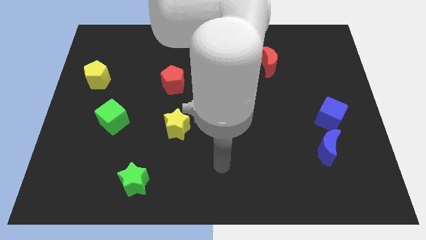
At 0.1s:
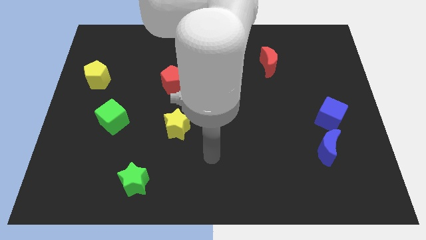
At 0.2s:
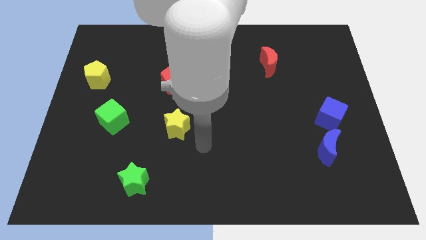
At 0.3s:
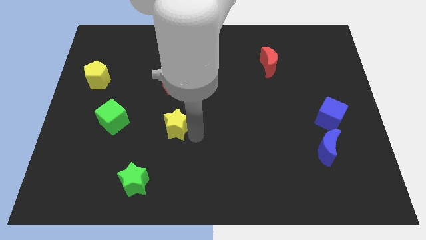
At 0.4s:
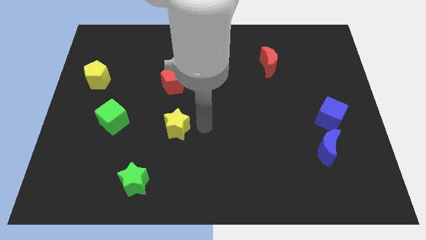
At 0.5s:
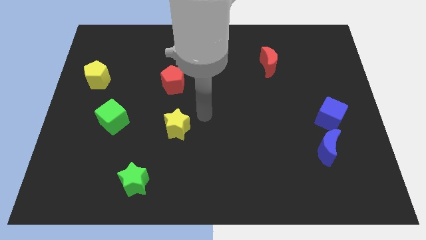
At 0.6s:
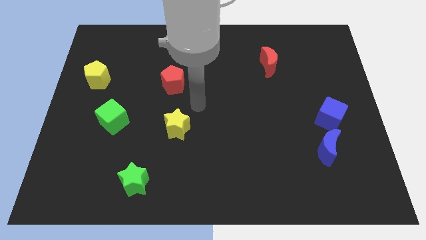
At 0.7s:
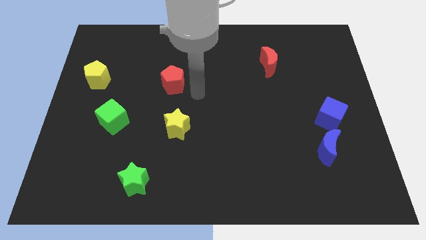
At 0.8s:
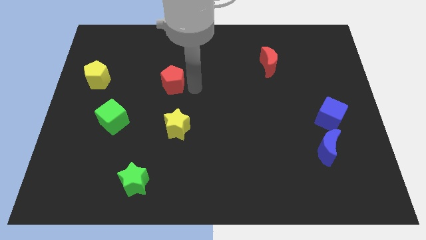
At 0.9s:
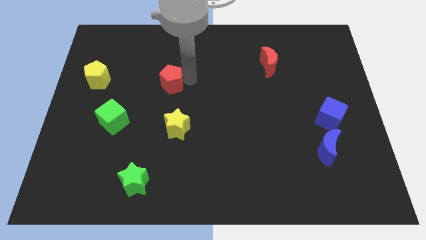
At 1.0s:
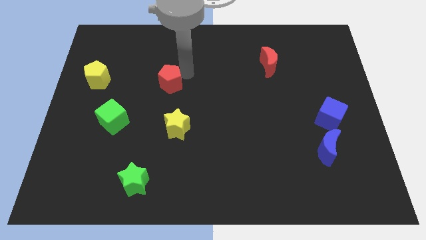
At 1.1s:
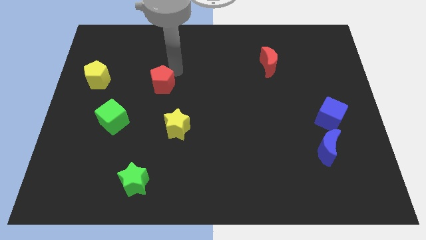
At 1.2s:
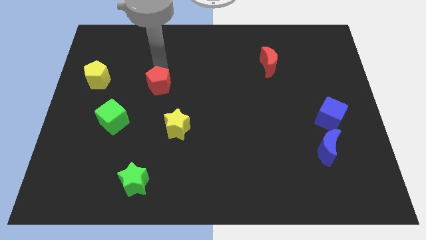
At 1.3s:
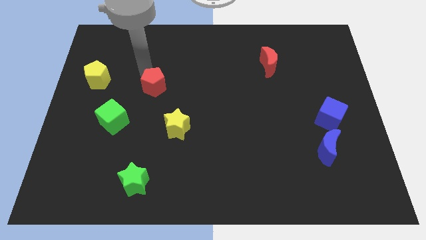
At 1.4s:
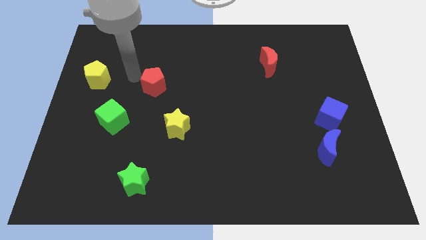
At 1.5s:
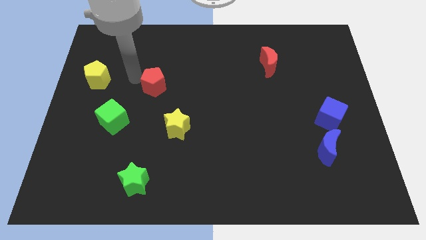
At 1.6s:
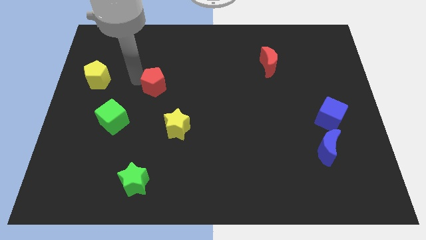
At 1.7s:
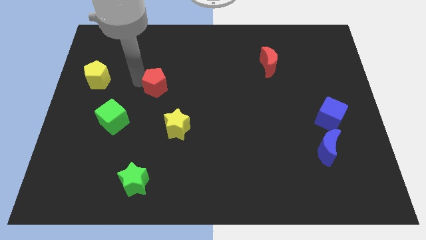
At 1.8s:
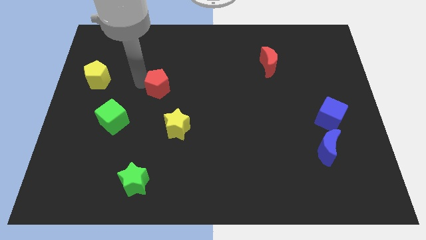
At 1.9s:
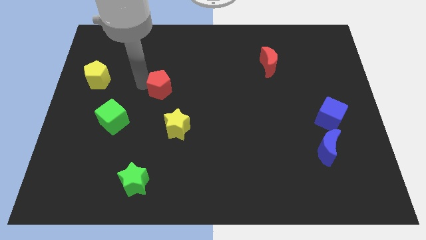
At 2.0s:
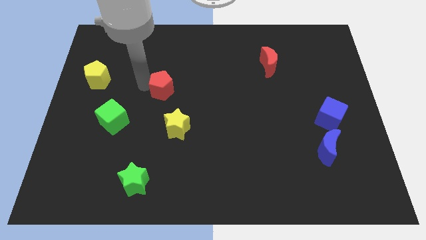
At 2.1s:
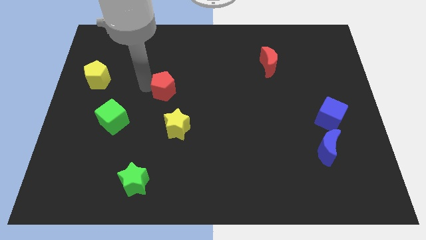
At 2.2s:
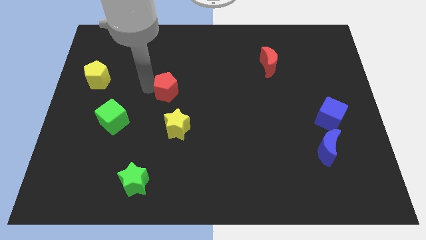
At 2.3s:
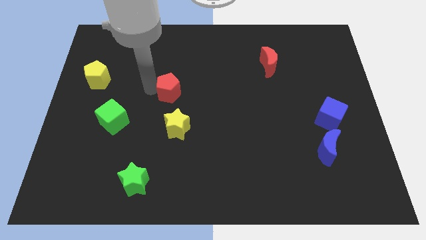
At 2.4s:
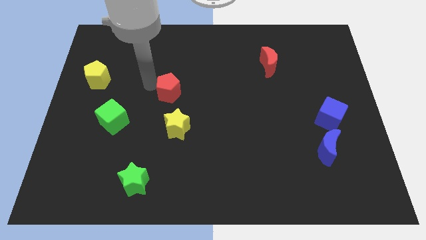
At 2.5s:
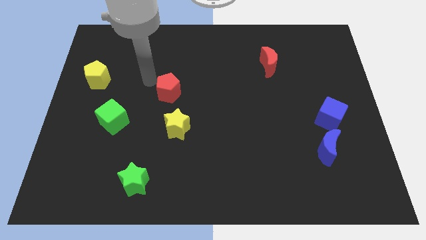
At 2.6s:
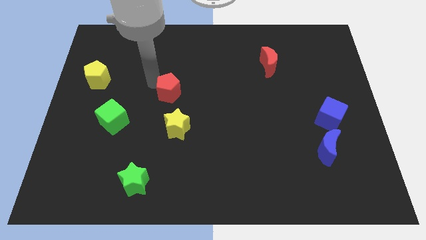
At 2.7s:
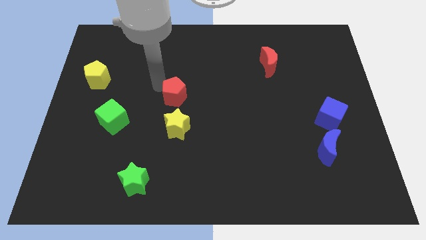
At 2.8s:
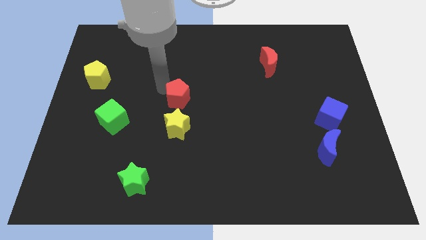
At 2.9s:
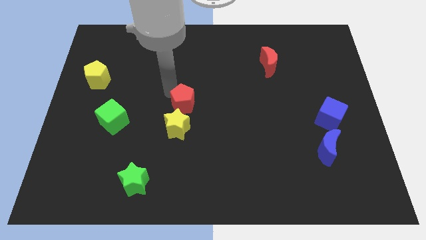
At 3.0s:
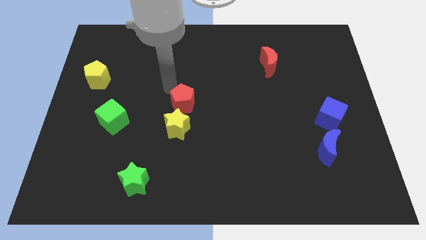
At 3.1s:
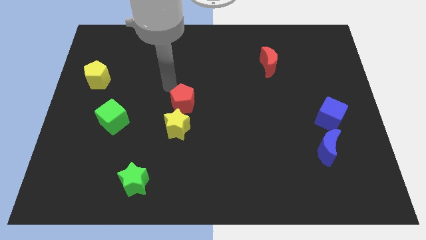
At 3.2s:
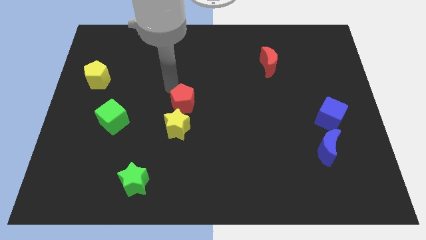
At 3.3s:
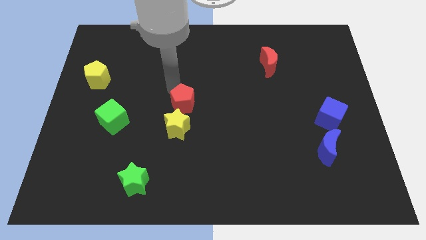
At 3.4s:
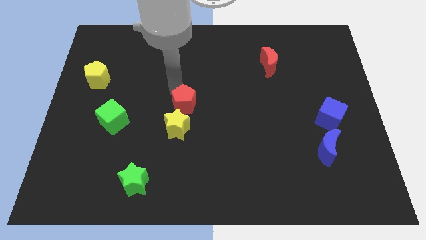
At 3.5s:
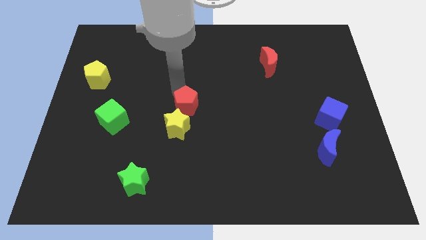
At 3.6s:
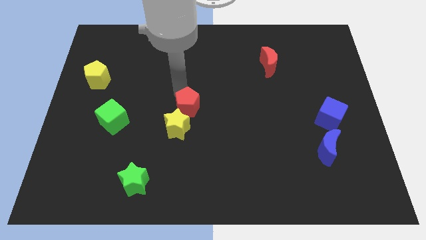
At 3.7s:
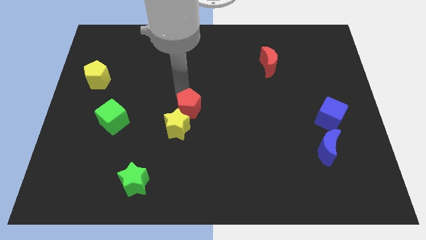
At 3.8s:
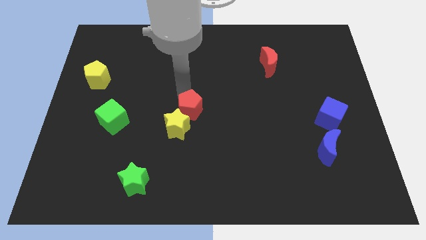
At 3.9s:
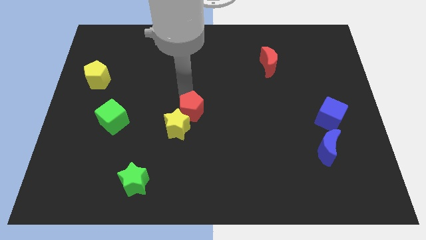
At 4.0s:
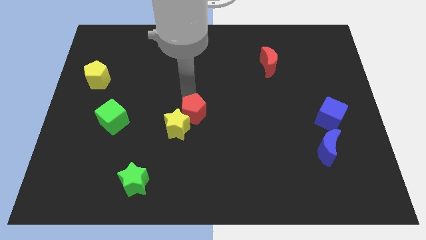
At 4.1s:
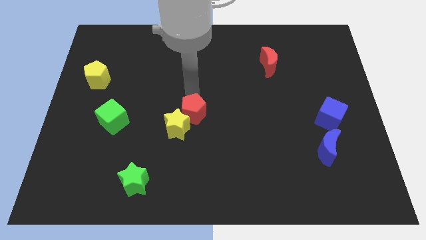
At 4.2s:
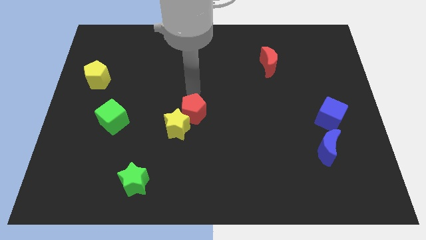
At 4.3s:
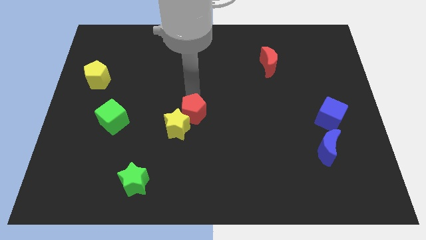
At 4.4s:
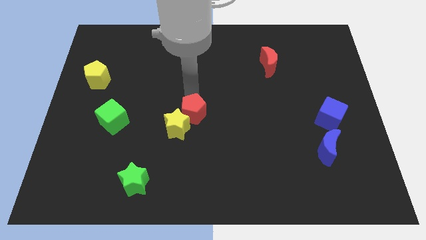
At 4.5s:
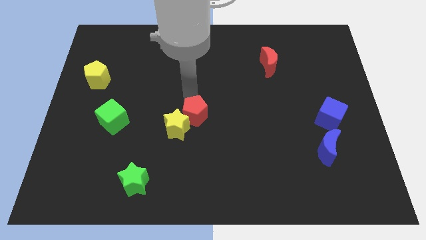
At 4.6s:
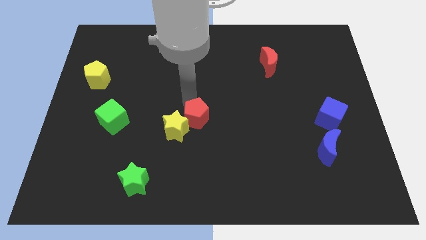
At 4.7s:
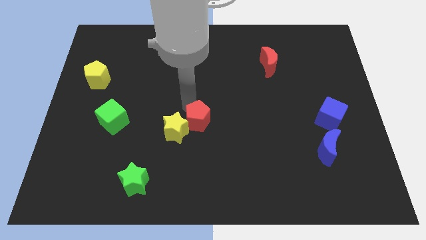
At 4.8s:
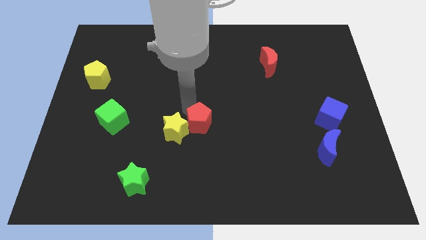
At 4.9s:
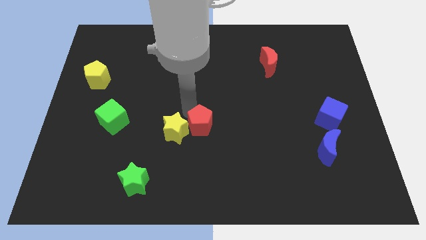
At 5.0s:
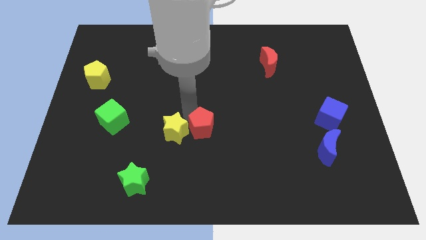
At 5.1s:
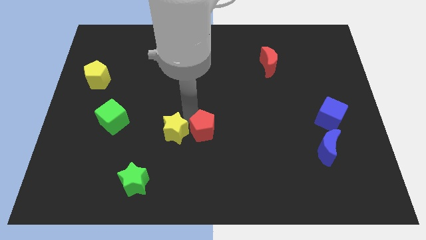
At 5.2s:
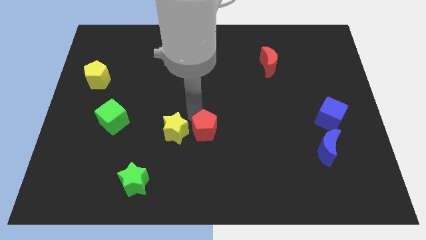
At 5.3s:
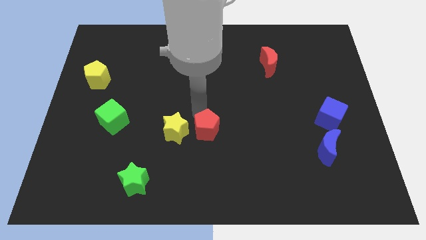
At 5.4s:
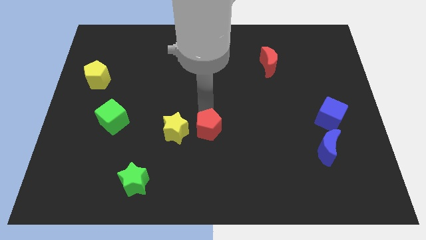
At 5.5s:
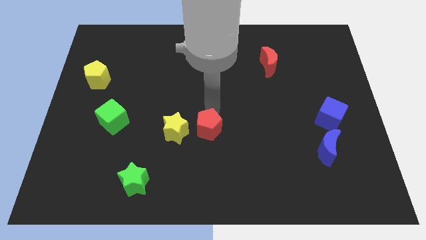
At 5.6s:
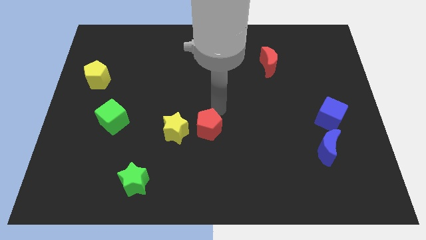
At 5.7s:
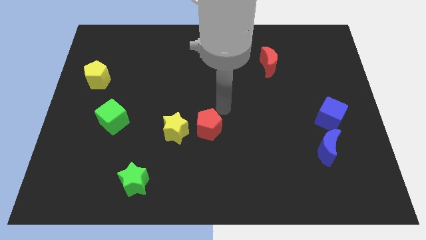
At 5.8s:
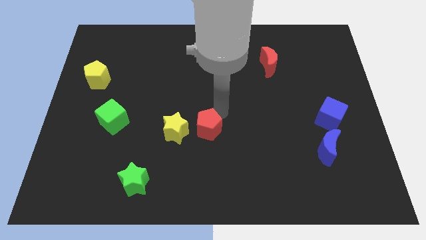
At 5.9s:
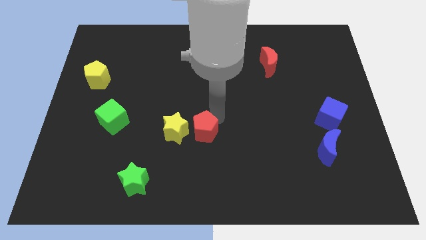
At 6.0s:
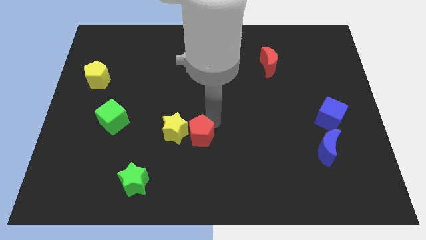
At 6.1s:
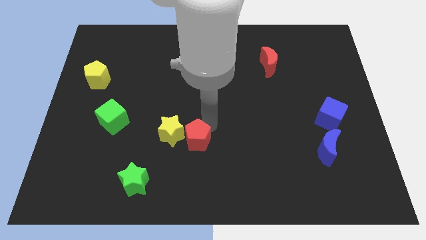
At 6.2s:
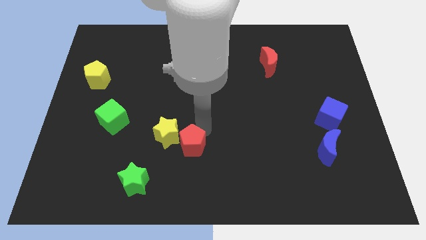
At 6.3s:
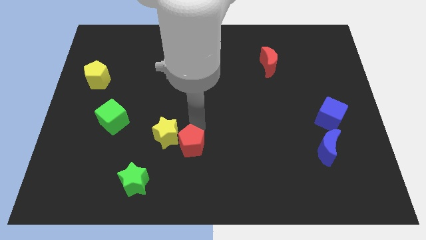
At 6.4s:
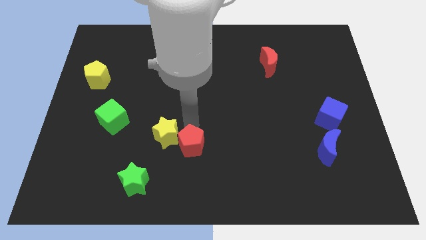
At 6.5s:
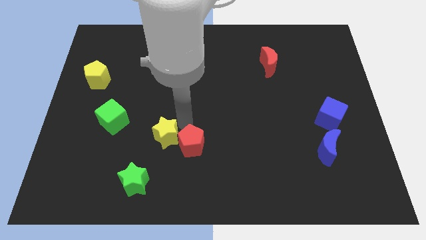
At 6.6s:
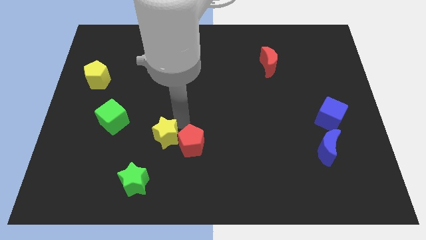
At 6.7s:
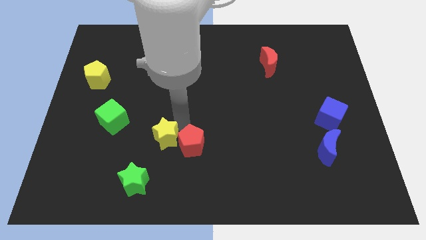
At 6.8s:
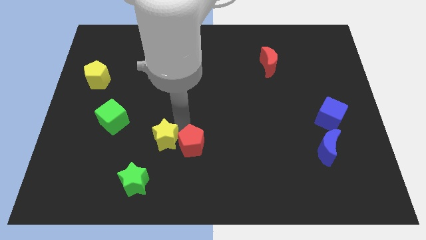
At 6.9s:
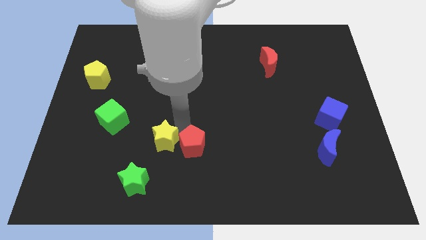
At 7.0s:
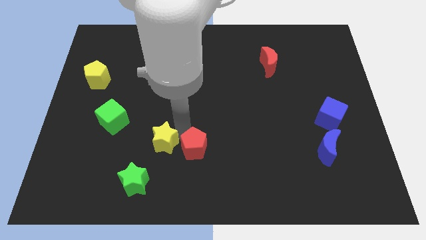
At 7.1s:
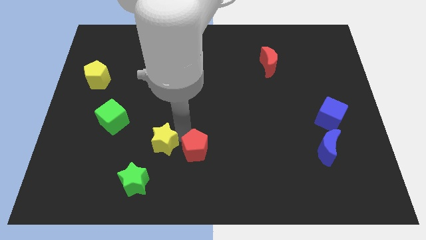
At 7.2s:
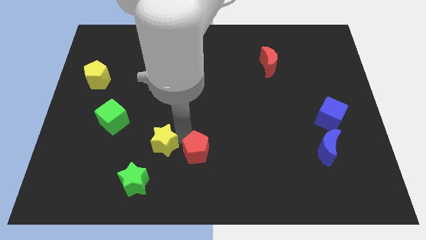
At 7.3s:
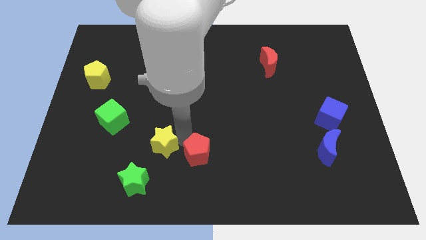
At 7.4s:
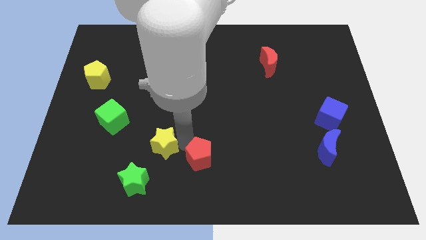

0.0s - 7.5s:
slide the red pentagon to the bottom
